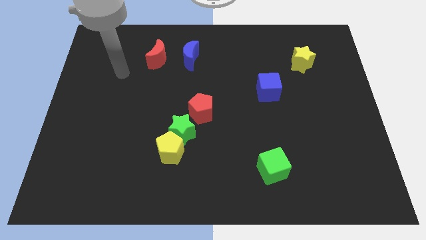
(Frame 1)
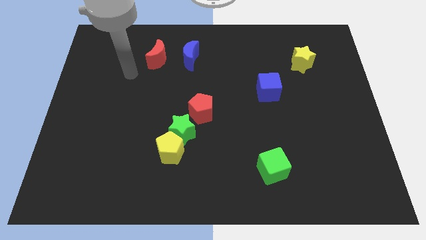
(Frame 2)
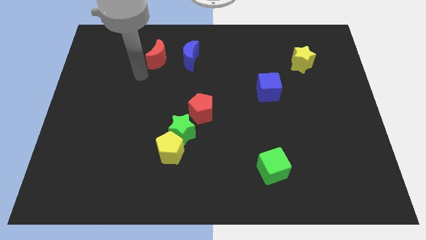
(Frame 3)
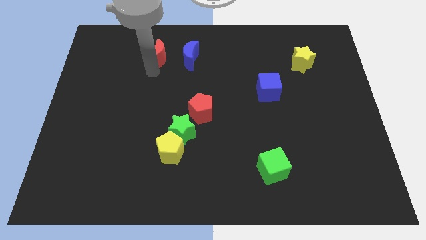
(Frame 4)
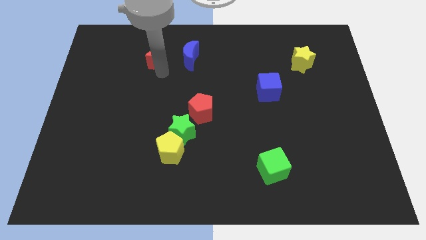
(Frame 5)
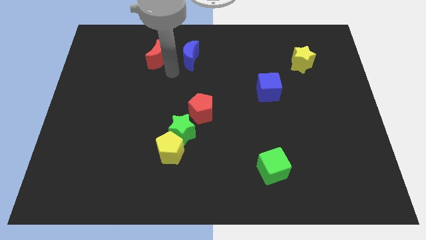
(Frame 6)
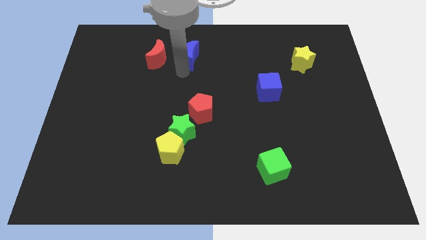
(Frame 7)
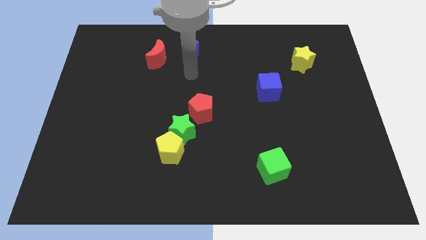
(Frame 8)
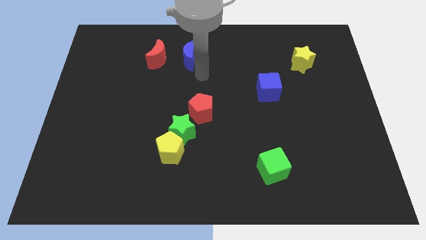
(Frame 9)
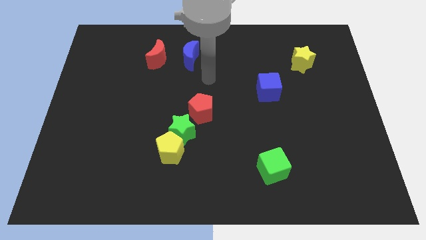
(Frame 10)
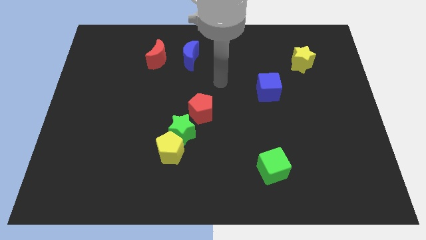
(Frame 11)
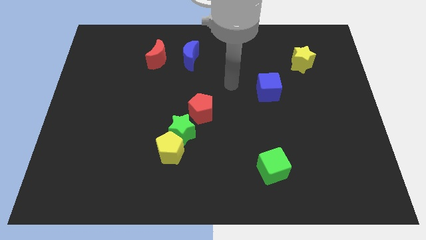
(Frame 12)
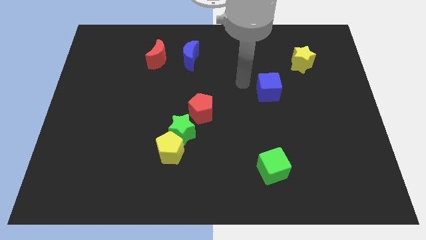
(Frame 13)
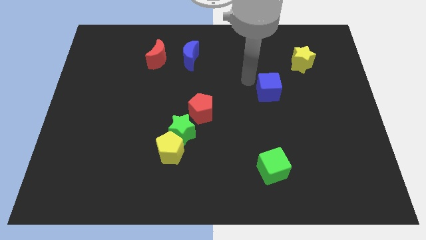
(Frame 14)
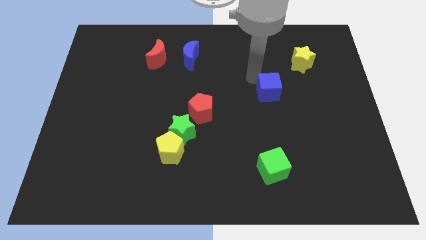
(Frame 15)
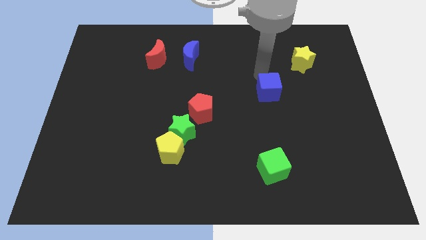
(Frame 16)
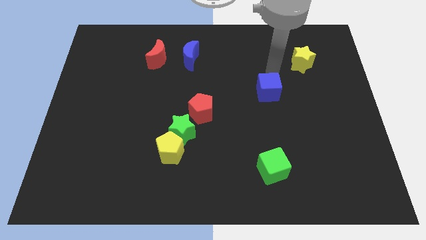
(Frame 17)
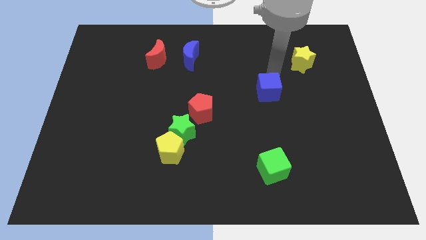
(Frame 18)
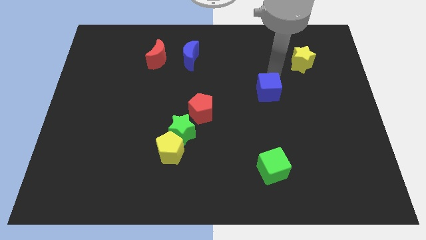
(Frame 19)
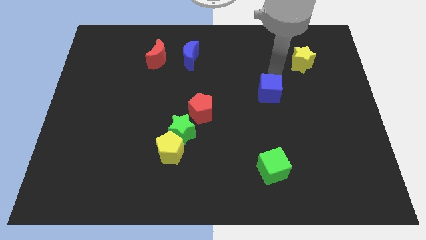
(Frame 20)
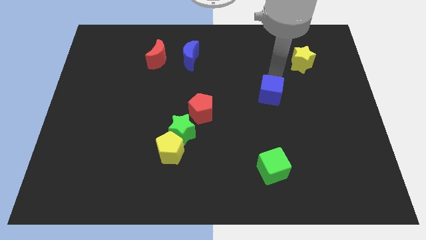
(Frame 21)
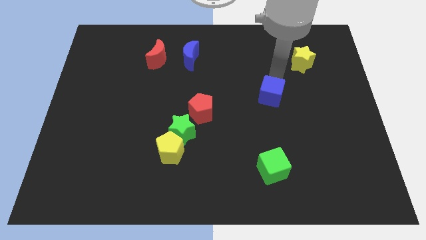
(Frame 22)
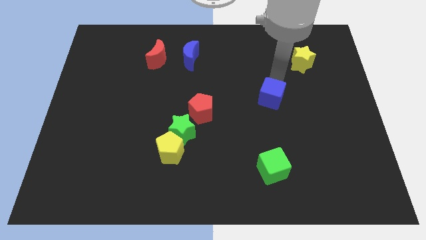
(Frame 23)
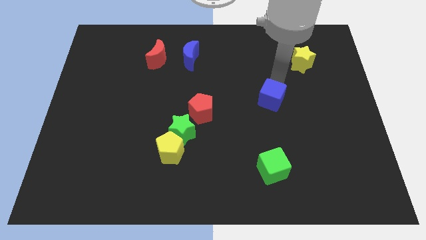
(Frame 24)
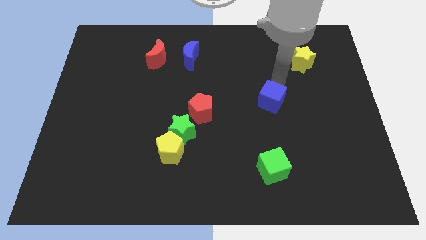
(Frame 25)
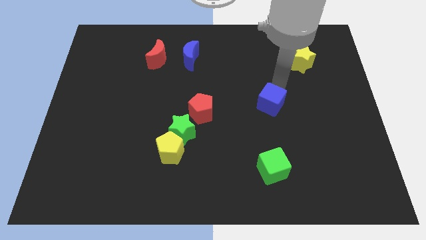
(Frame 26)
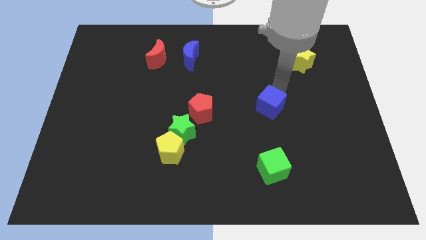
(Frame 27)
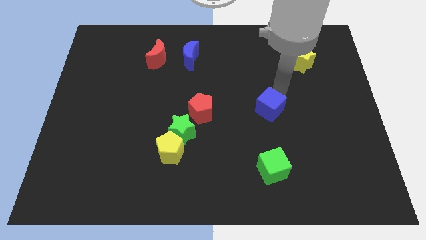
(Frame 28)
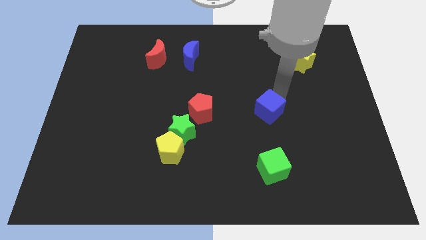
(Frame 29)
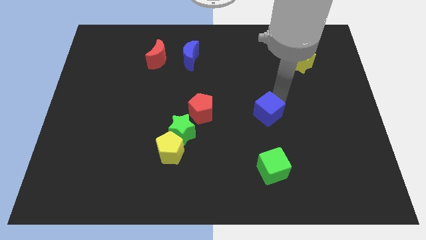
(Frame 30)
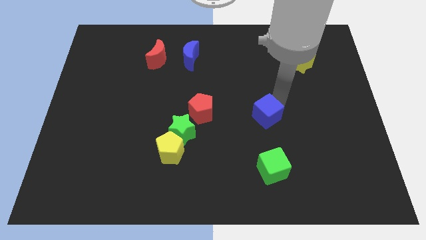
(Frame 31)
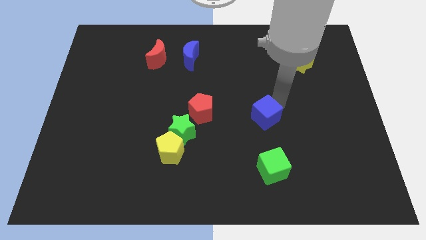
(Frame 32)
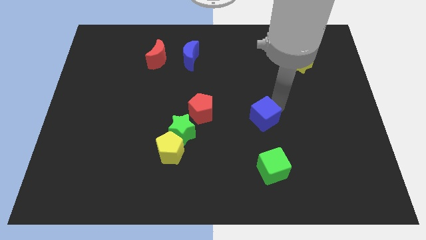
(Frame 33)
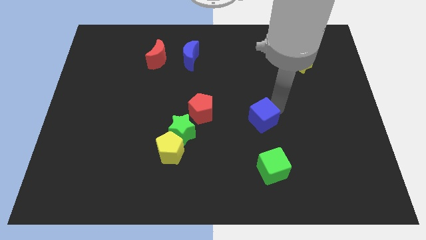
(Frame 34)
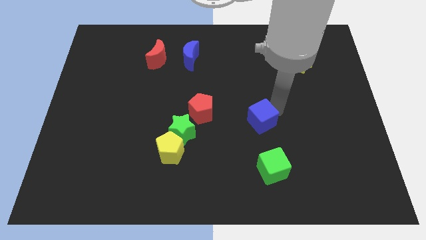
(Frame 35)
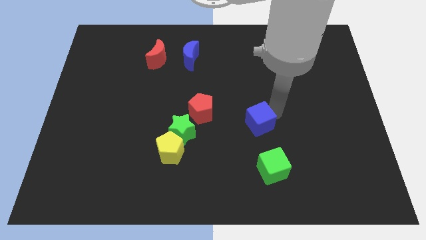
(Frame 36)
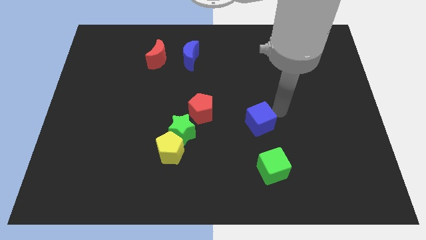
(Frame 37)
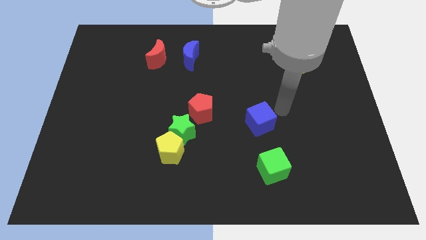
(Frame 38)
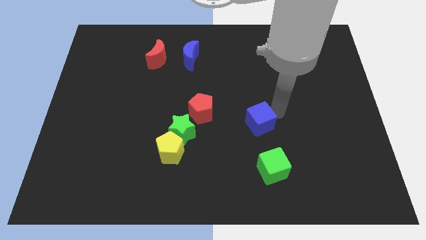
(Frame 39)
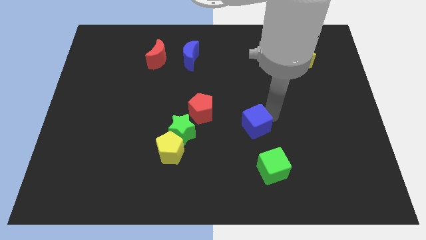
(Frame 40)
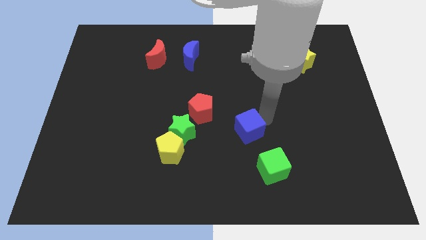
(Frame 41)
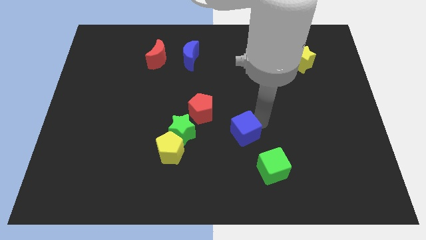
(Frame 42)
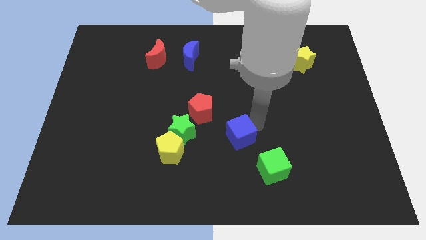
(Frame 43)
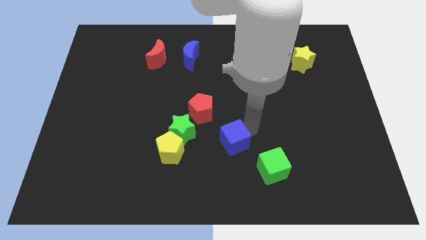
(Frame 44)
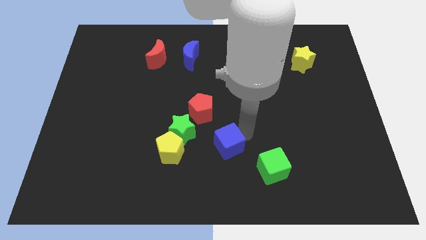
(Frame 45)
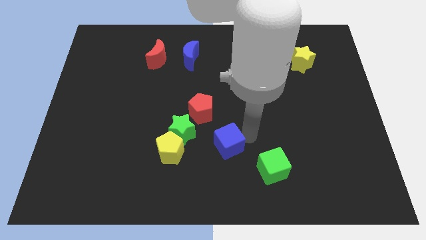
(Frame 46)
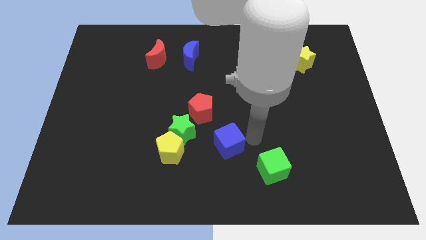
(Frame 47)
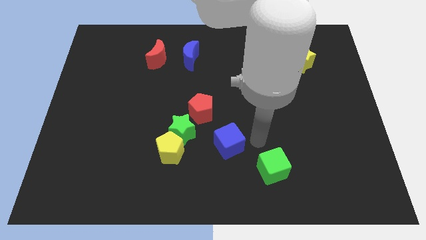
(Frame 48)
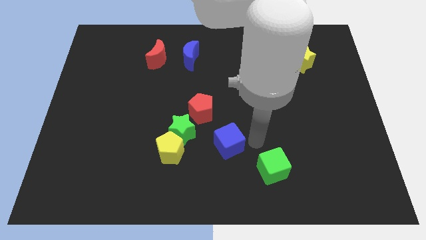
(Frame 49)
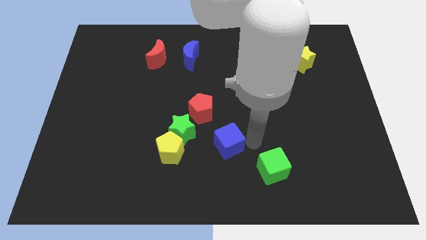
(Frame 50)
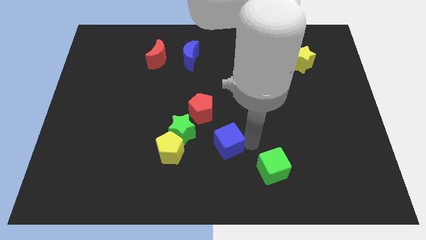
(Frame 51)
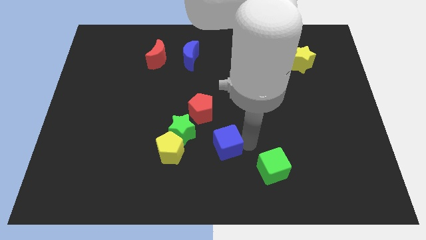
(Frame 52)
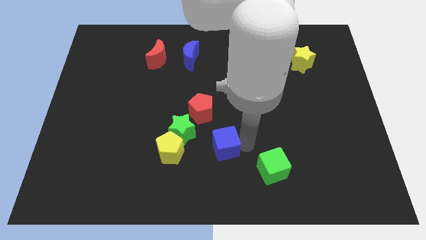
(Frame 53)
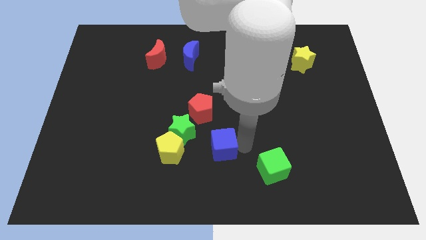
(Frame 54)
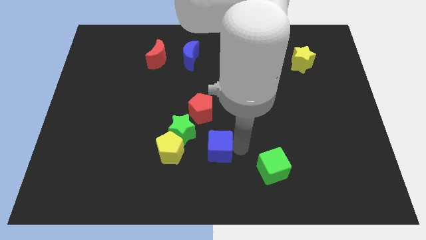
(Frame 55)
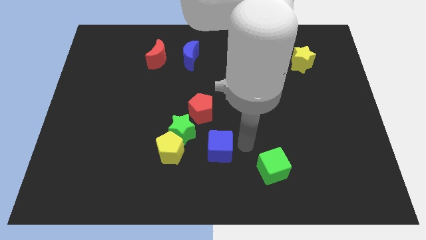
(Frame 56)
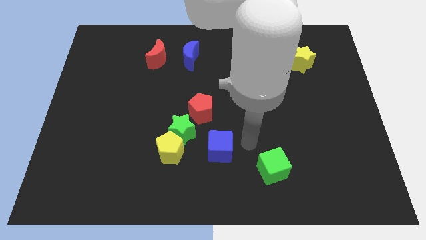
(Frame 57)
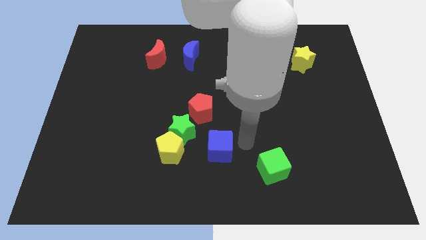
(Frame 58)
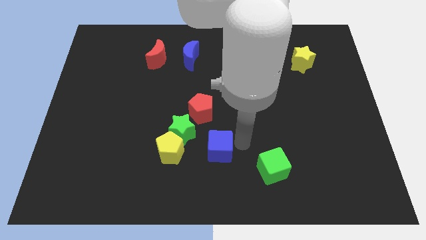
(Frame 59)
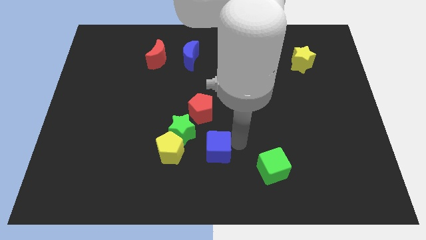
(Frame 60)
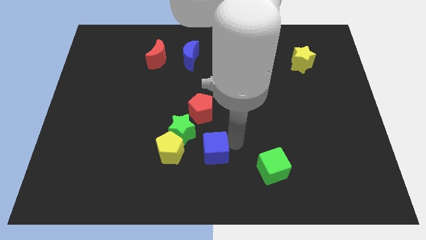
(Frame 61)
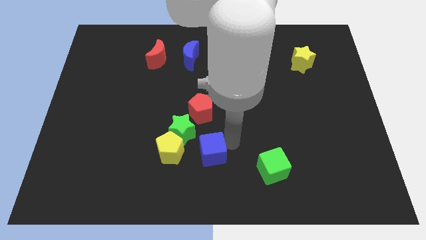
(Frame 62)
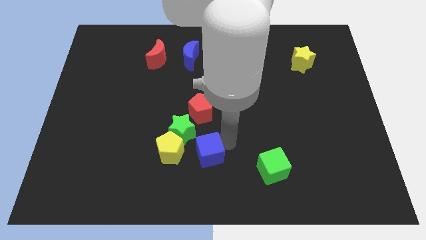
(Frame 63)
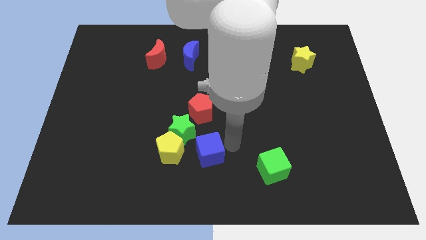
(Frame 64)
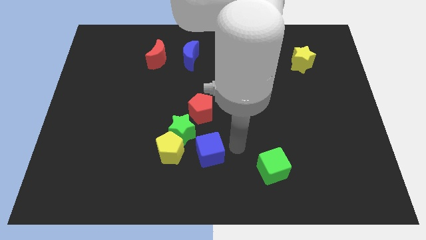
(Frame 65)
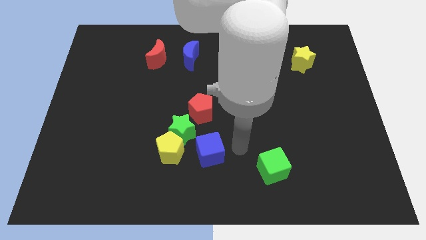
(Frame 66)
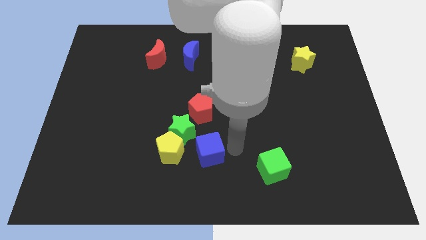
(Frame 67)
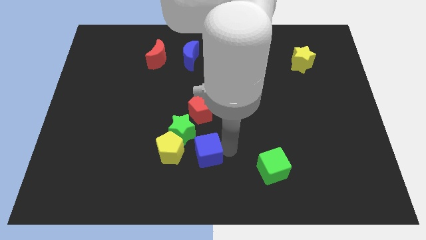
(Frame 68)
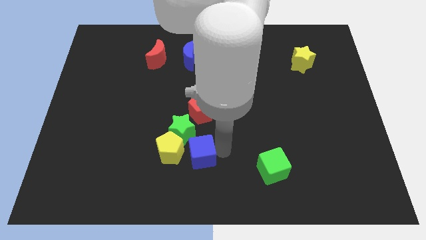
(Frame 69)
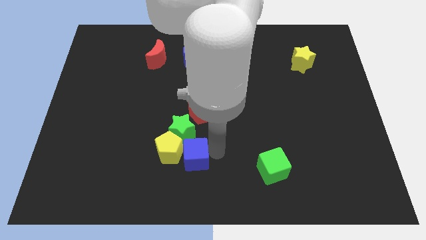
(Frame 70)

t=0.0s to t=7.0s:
move the blue cube close to the yellow pentagon
